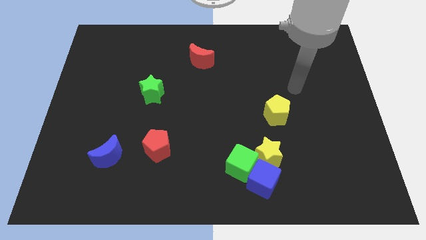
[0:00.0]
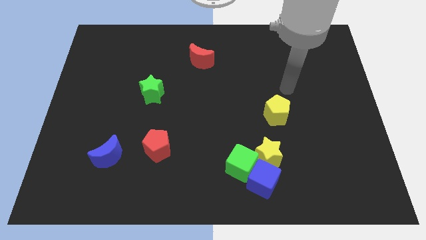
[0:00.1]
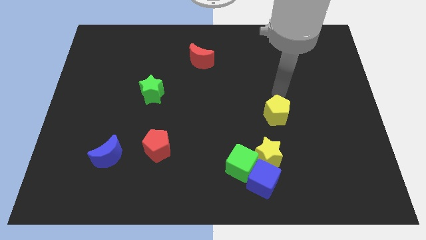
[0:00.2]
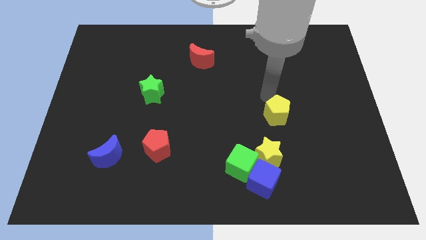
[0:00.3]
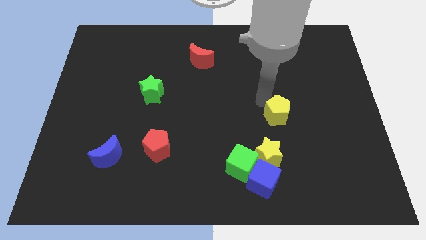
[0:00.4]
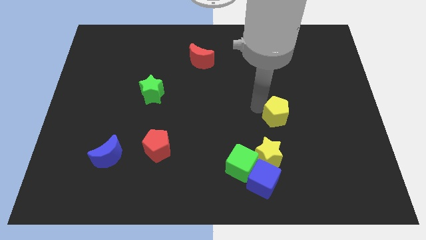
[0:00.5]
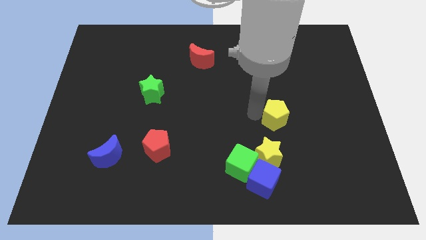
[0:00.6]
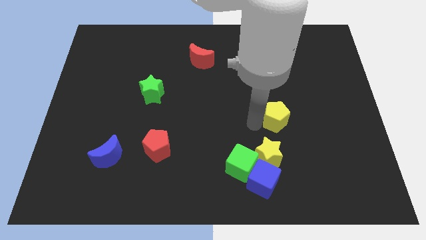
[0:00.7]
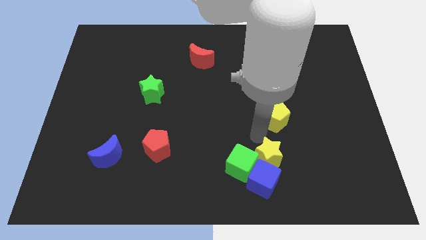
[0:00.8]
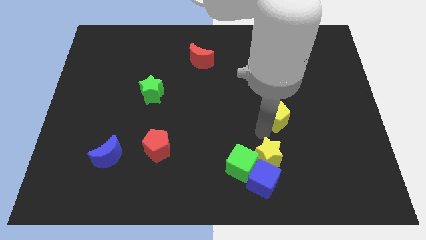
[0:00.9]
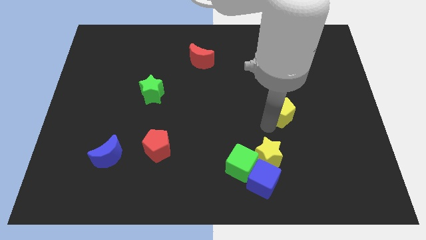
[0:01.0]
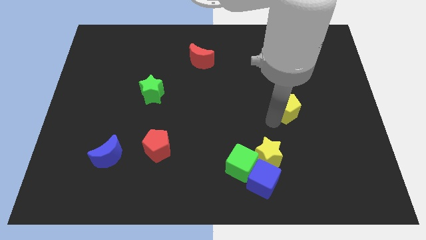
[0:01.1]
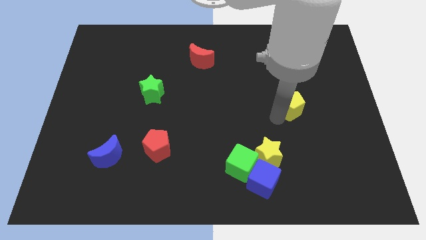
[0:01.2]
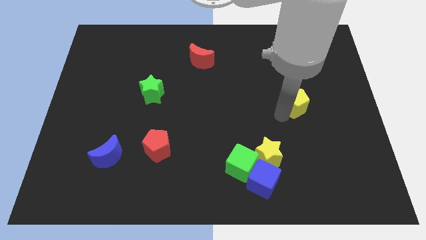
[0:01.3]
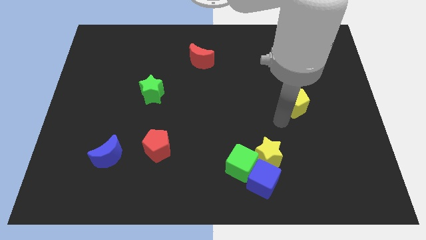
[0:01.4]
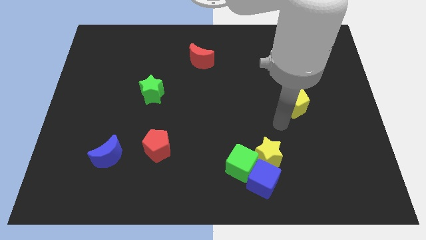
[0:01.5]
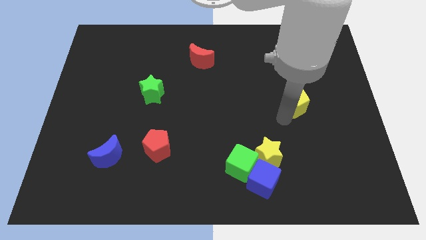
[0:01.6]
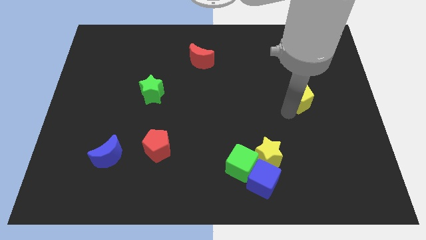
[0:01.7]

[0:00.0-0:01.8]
push the yellow pentagon slightly up and then right

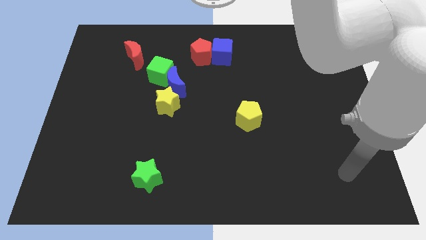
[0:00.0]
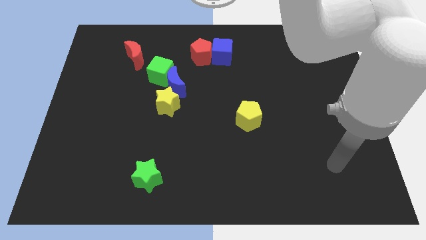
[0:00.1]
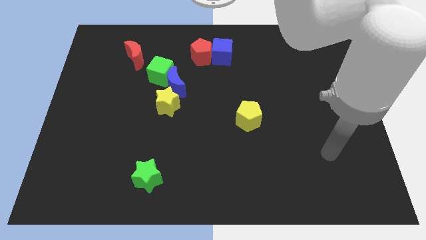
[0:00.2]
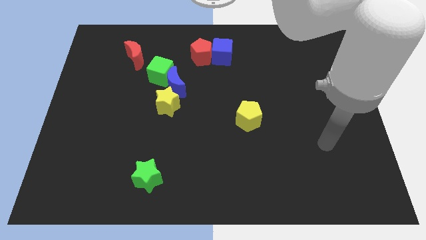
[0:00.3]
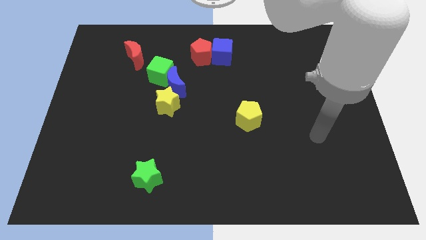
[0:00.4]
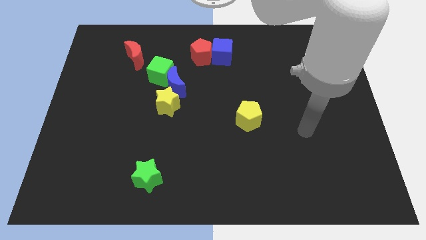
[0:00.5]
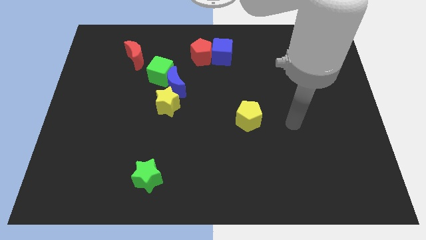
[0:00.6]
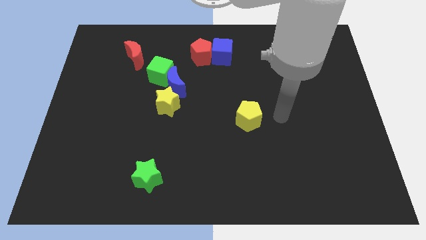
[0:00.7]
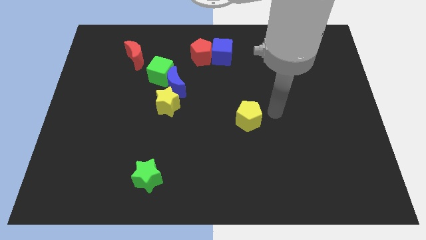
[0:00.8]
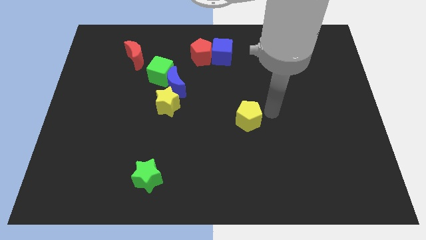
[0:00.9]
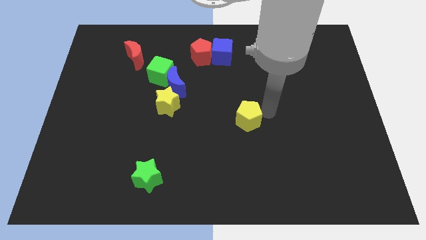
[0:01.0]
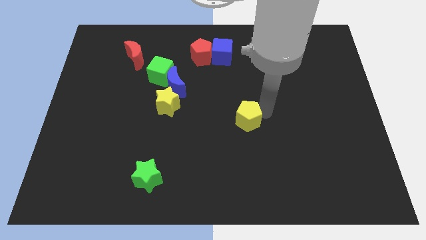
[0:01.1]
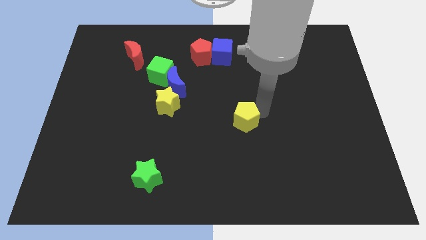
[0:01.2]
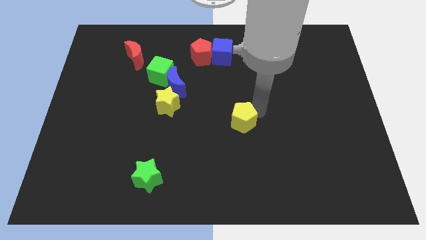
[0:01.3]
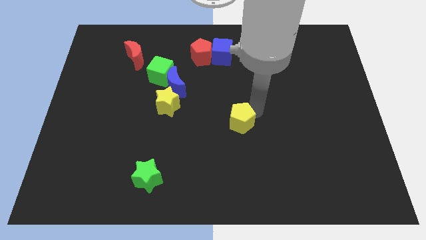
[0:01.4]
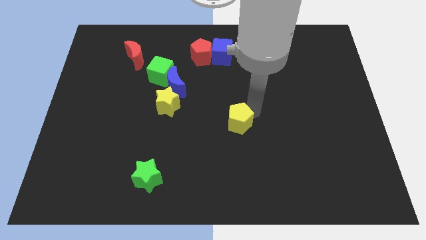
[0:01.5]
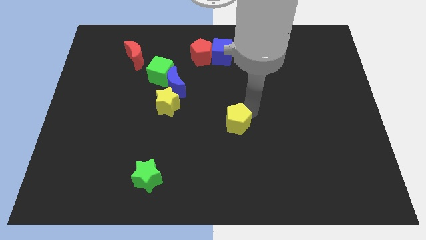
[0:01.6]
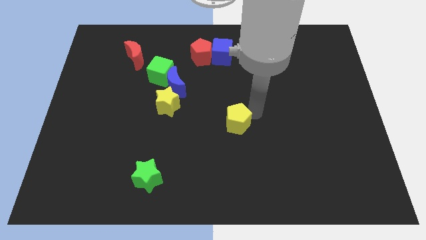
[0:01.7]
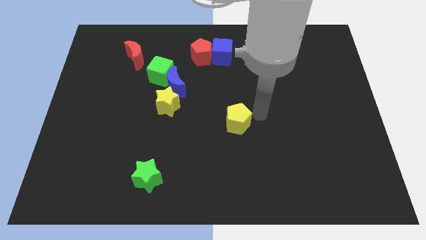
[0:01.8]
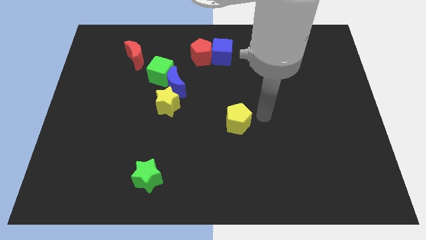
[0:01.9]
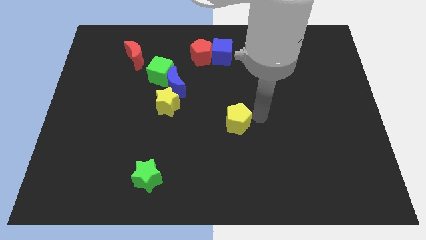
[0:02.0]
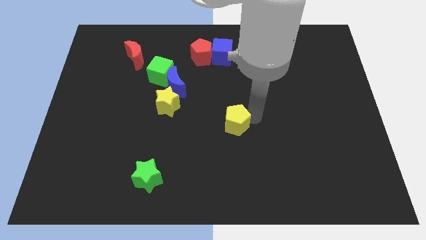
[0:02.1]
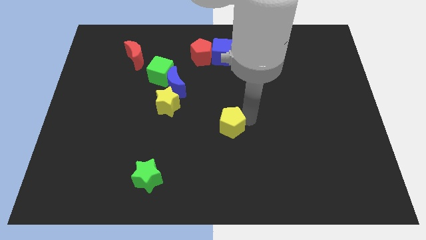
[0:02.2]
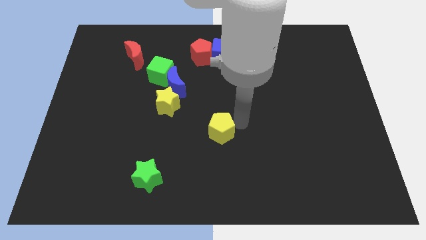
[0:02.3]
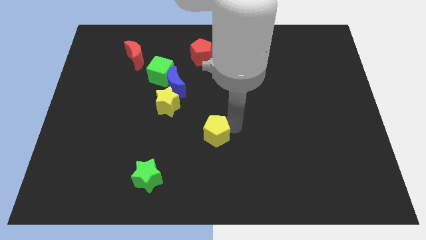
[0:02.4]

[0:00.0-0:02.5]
move the yellow pentagon somewhat left

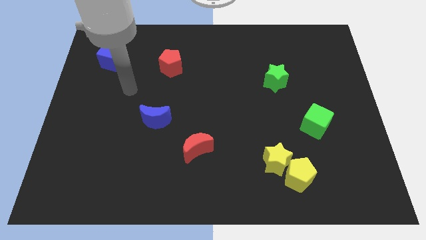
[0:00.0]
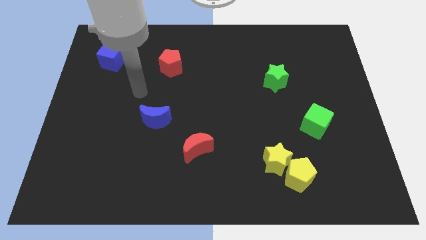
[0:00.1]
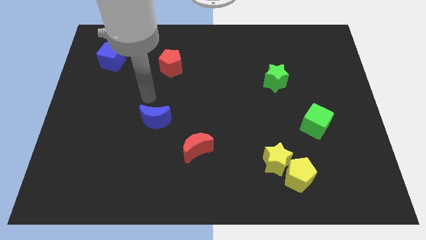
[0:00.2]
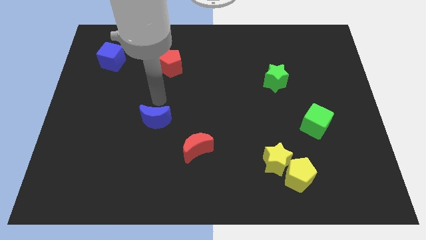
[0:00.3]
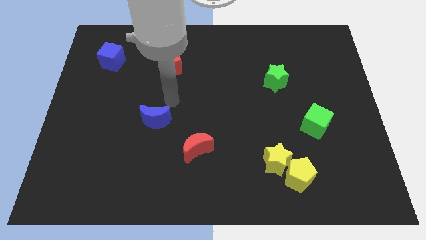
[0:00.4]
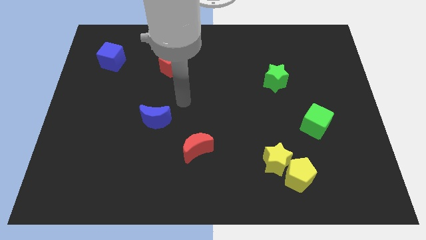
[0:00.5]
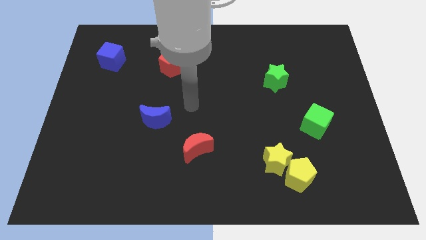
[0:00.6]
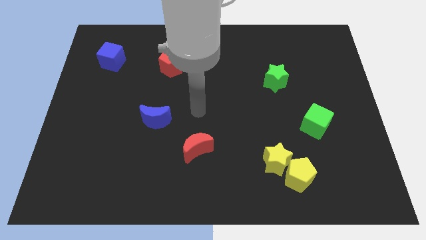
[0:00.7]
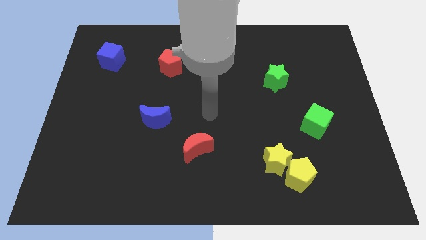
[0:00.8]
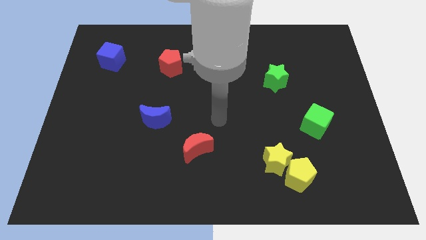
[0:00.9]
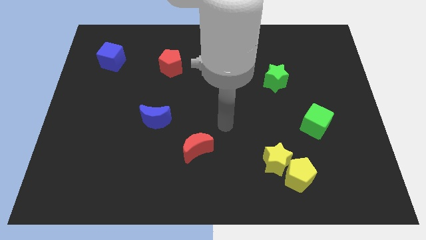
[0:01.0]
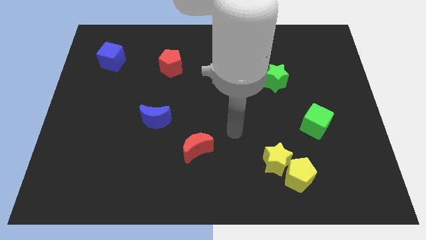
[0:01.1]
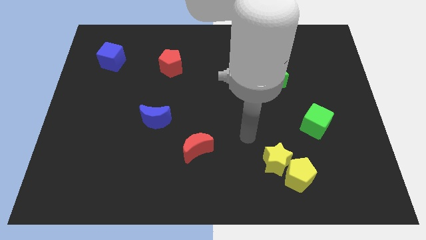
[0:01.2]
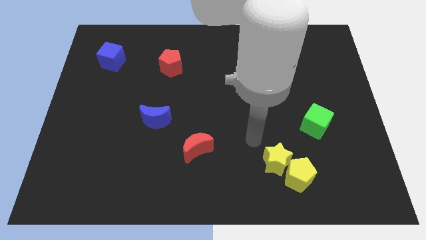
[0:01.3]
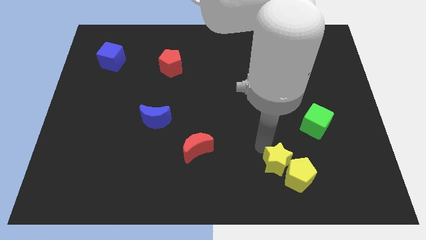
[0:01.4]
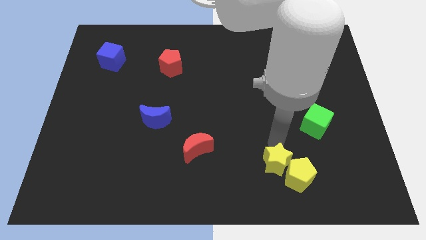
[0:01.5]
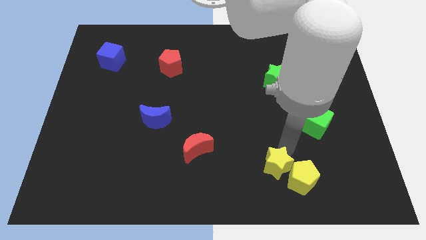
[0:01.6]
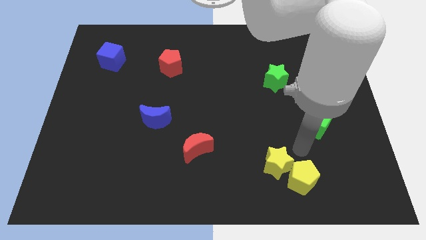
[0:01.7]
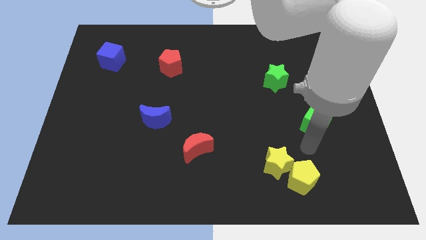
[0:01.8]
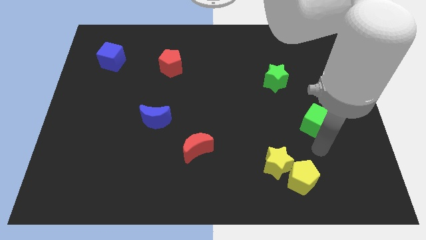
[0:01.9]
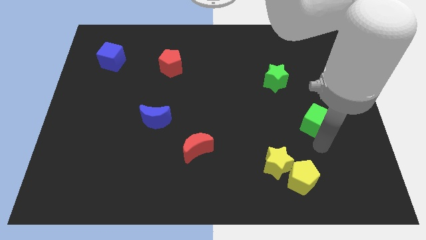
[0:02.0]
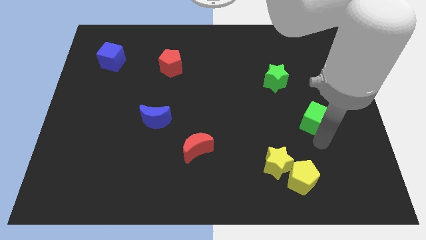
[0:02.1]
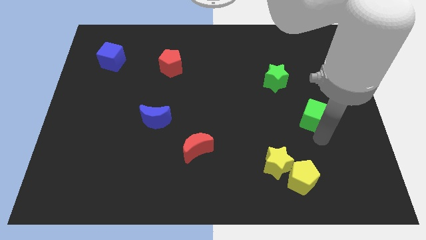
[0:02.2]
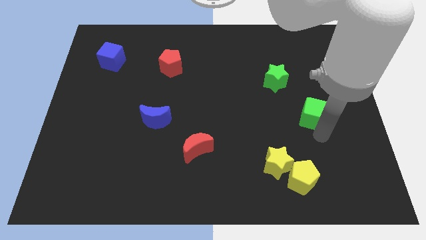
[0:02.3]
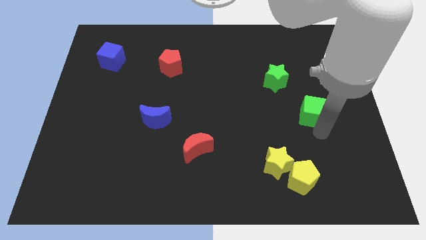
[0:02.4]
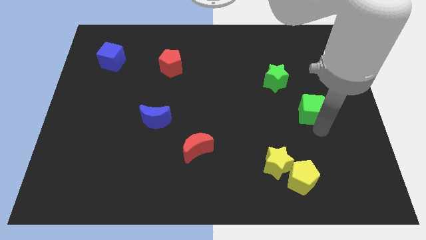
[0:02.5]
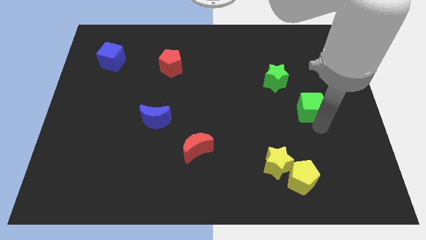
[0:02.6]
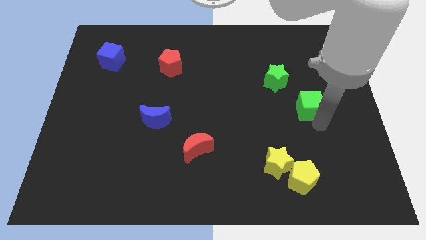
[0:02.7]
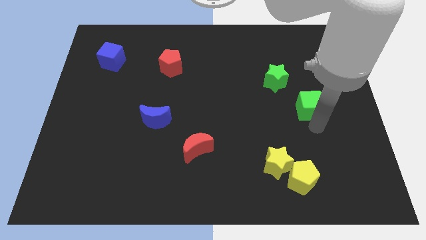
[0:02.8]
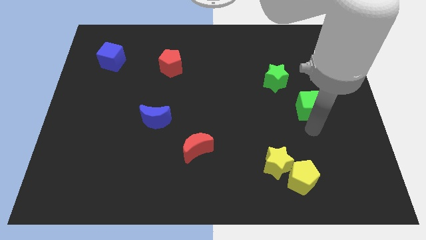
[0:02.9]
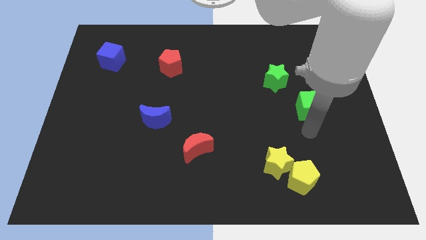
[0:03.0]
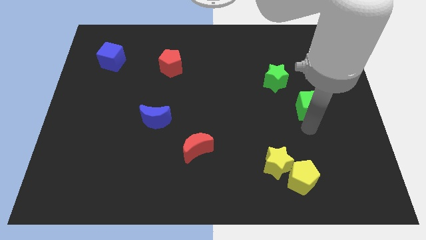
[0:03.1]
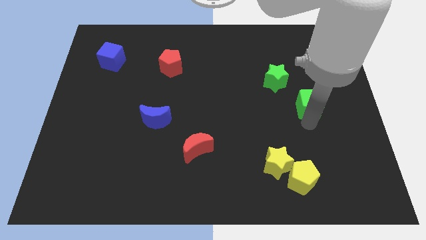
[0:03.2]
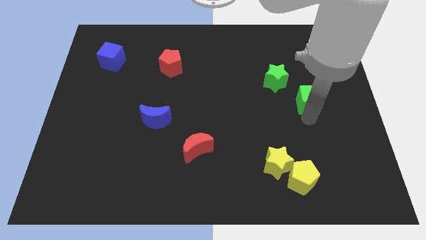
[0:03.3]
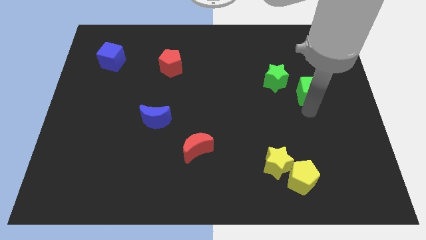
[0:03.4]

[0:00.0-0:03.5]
slide the green cube up slightly
